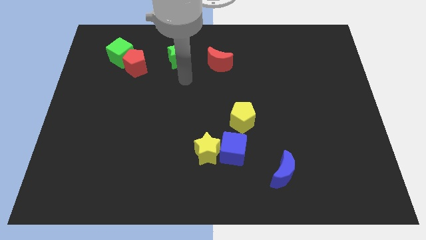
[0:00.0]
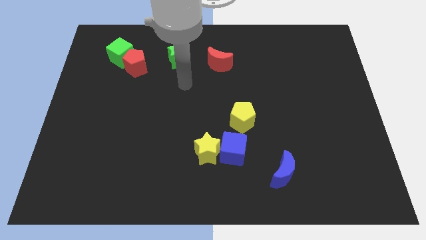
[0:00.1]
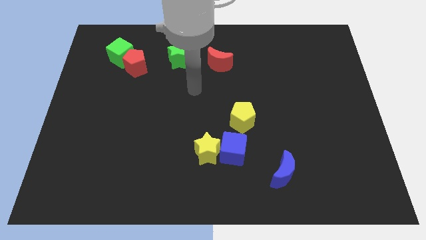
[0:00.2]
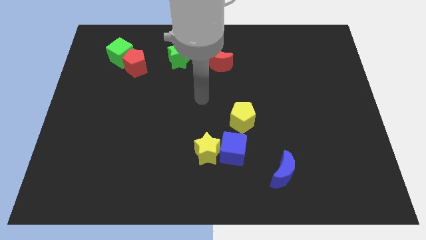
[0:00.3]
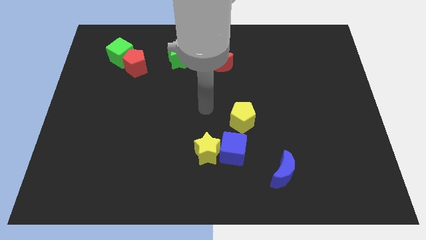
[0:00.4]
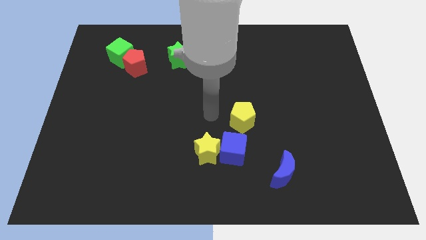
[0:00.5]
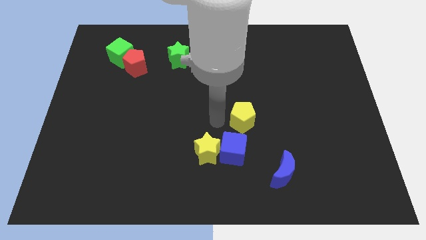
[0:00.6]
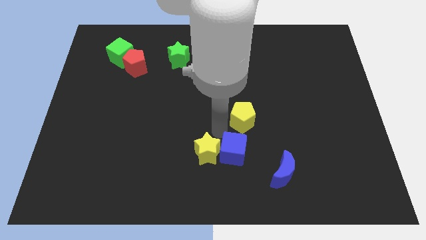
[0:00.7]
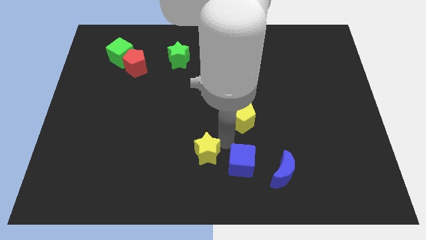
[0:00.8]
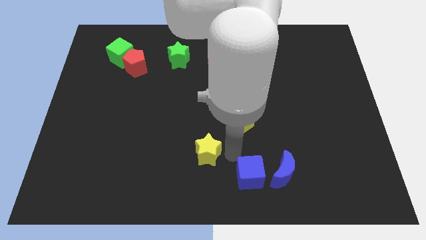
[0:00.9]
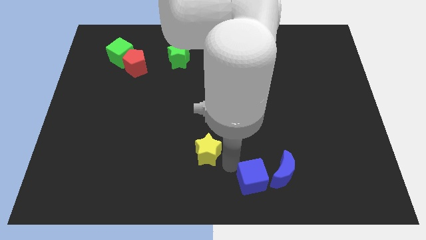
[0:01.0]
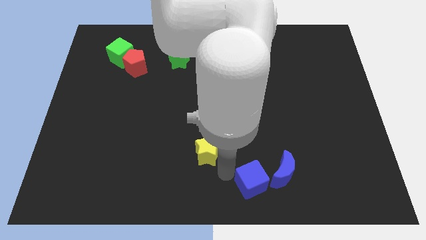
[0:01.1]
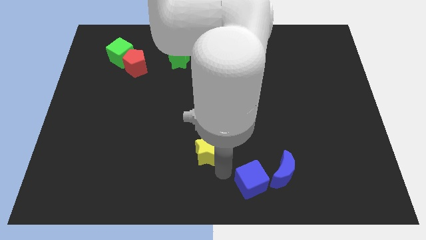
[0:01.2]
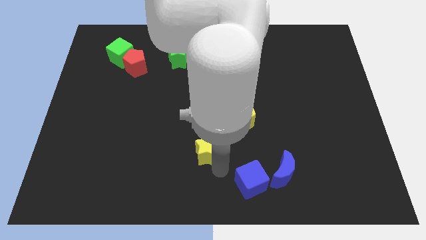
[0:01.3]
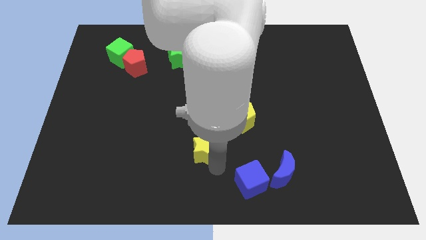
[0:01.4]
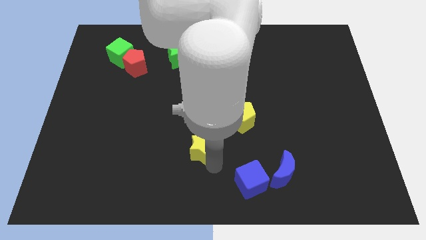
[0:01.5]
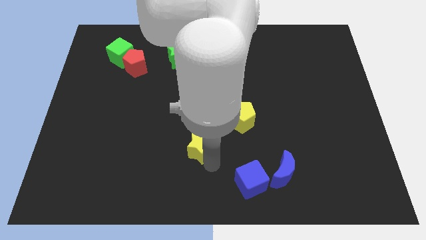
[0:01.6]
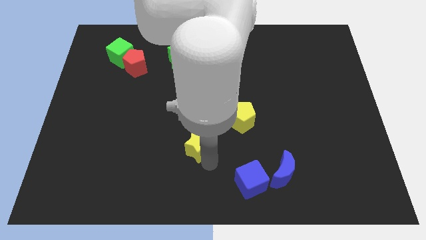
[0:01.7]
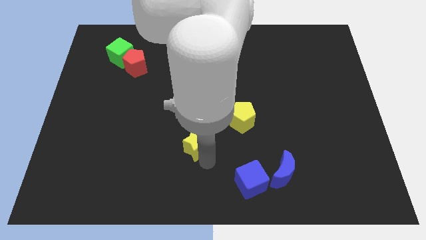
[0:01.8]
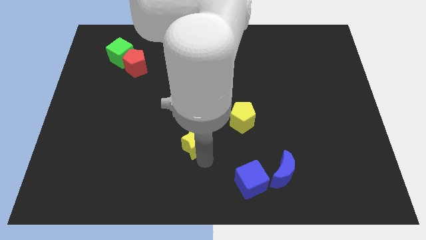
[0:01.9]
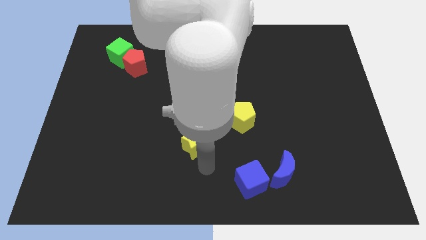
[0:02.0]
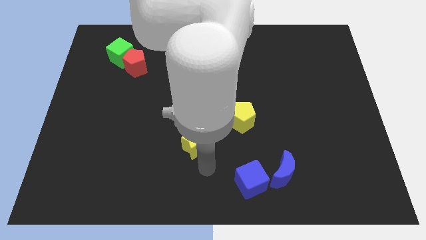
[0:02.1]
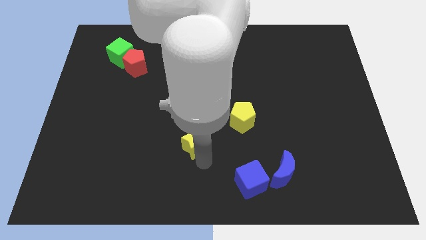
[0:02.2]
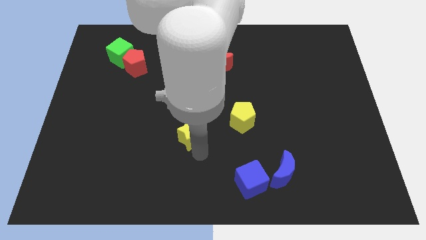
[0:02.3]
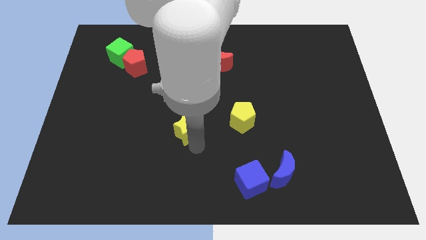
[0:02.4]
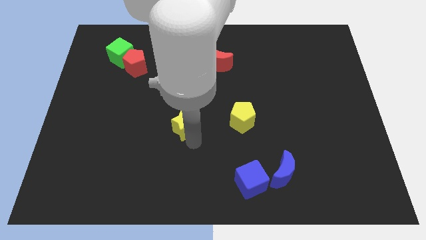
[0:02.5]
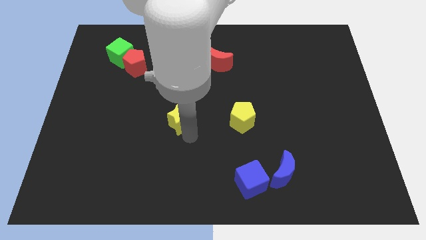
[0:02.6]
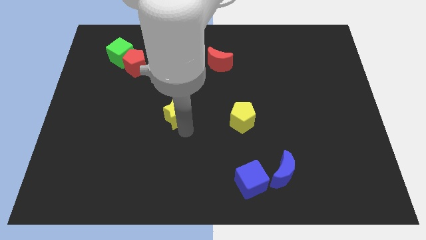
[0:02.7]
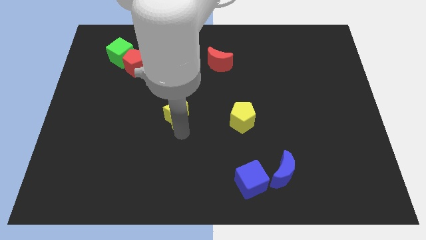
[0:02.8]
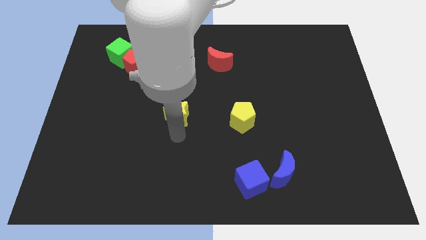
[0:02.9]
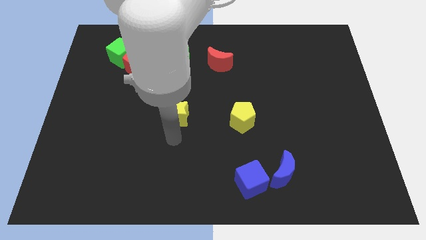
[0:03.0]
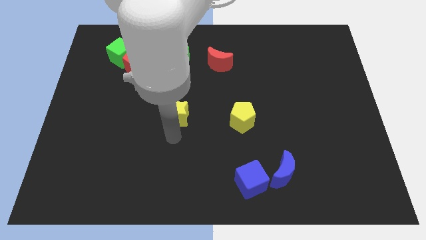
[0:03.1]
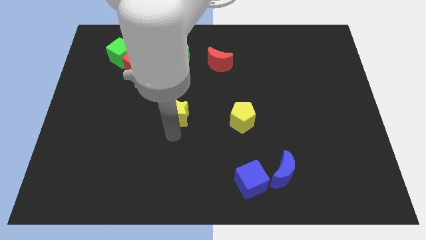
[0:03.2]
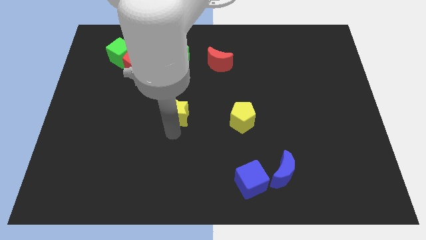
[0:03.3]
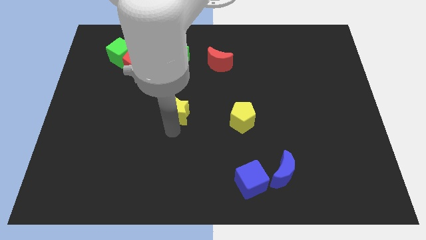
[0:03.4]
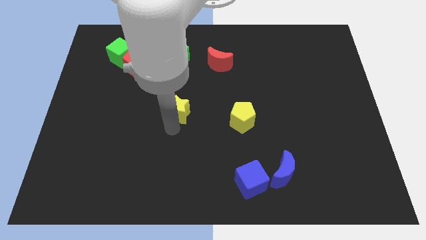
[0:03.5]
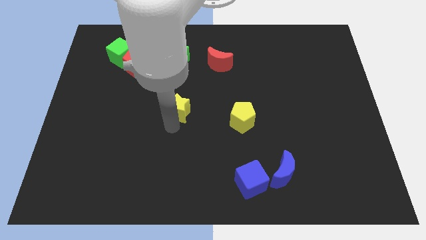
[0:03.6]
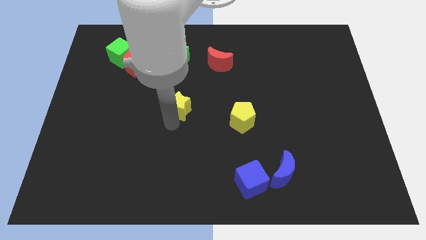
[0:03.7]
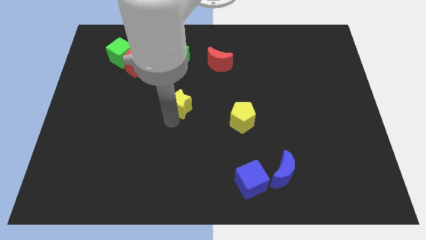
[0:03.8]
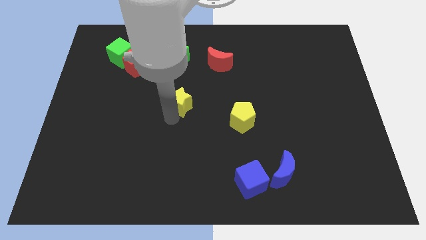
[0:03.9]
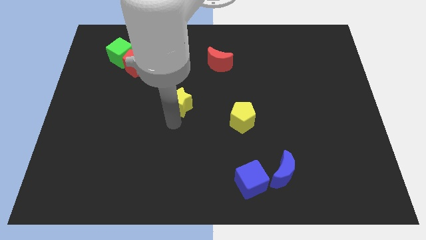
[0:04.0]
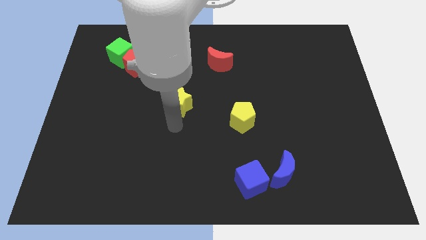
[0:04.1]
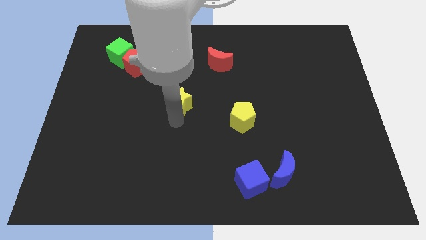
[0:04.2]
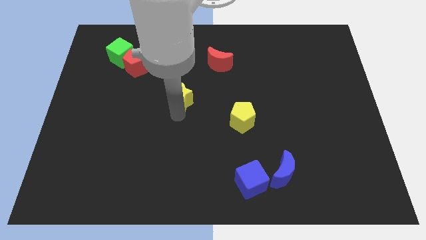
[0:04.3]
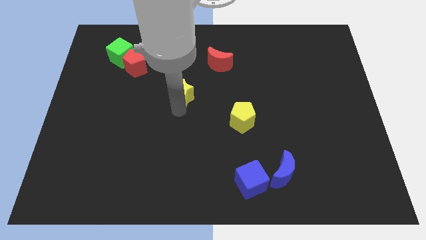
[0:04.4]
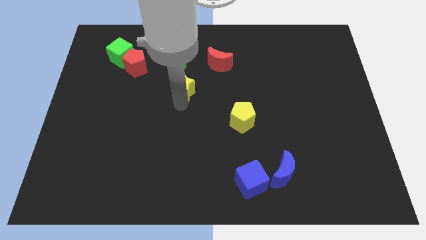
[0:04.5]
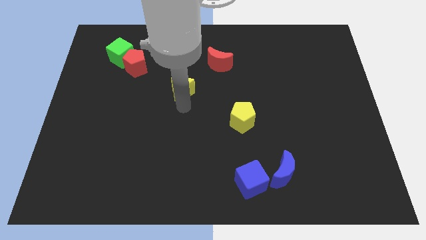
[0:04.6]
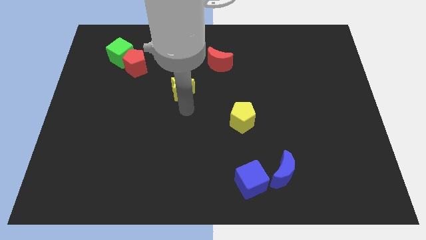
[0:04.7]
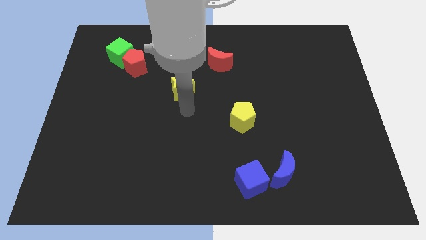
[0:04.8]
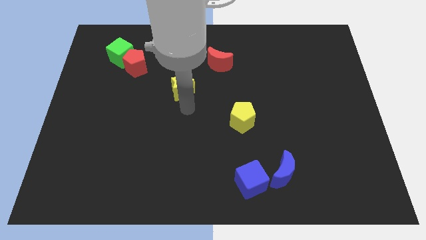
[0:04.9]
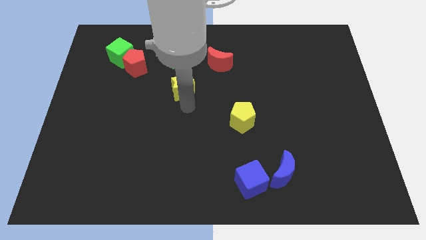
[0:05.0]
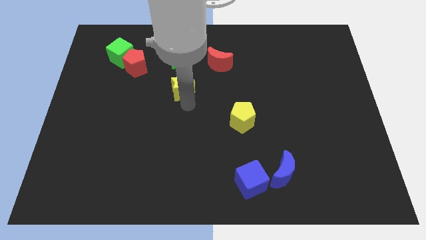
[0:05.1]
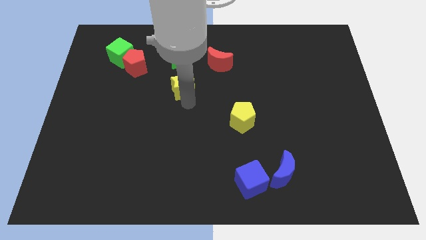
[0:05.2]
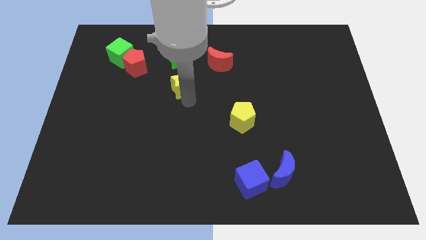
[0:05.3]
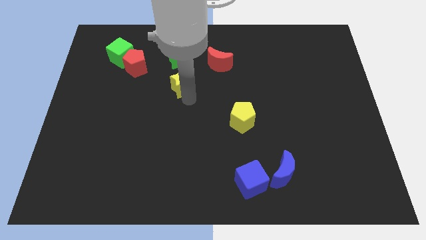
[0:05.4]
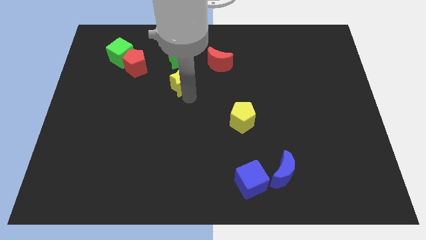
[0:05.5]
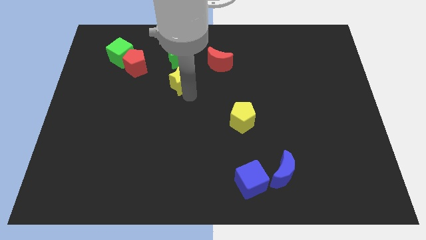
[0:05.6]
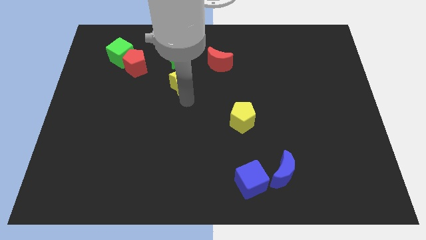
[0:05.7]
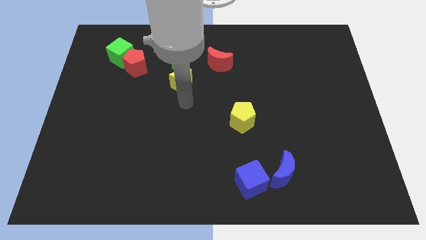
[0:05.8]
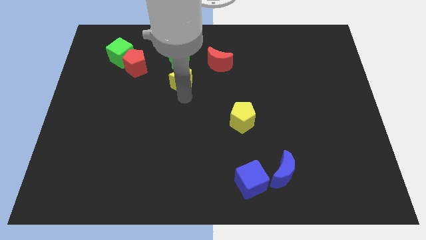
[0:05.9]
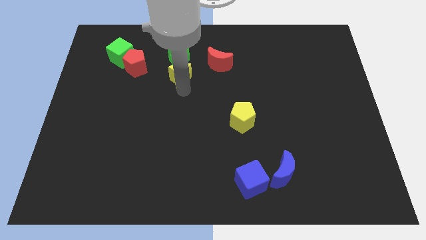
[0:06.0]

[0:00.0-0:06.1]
put the yellow star towards the green star

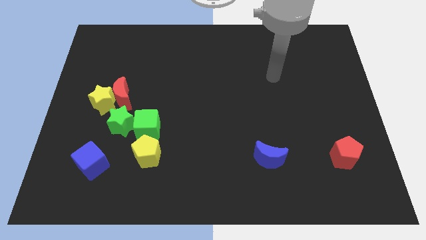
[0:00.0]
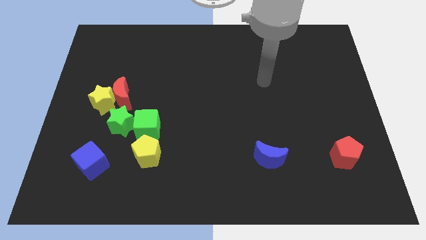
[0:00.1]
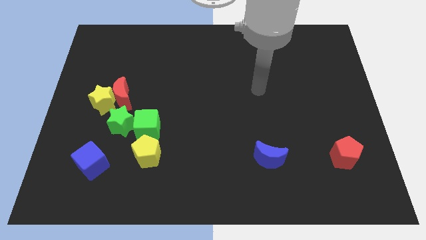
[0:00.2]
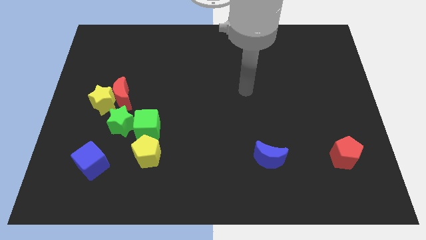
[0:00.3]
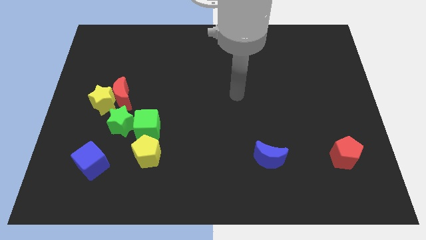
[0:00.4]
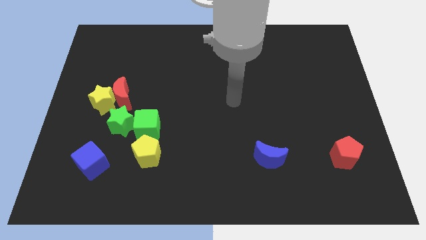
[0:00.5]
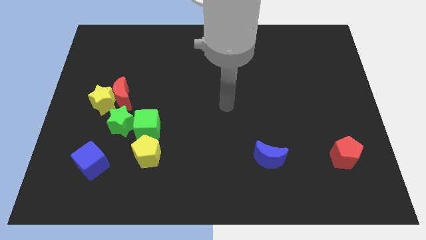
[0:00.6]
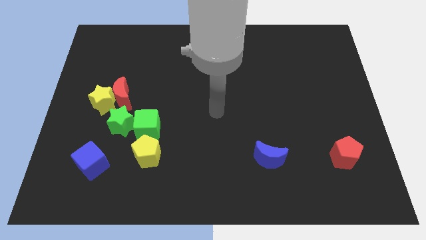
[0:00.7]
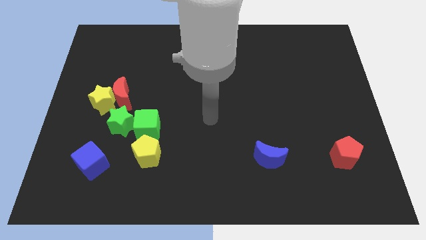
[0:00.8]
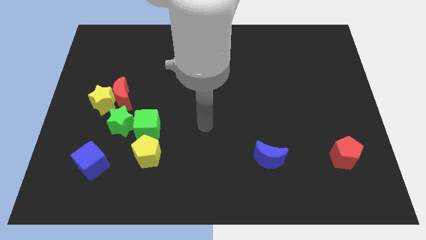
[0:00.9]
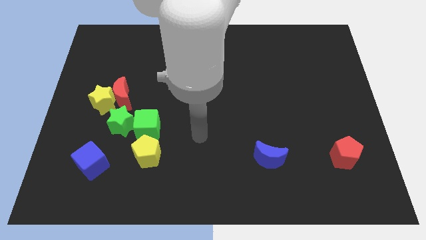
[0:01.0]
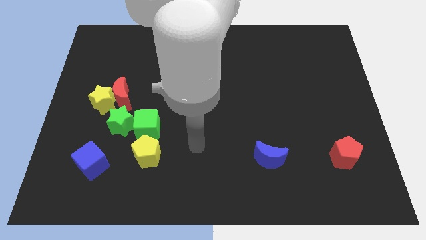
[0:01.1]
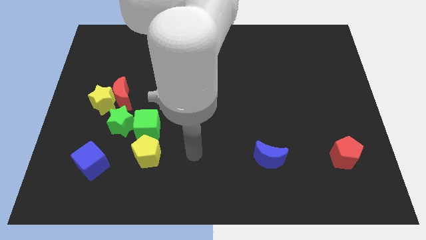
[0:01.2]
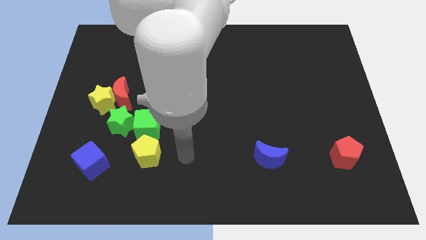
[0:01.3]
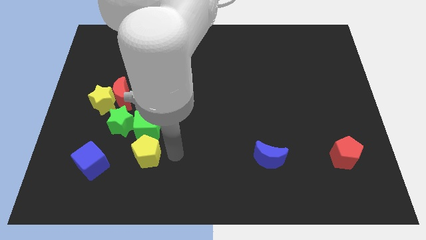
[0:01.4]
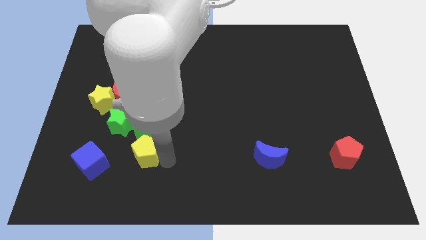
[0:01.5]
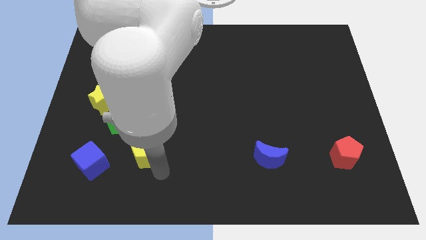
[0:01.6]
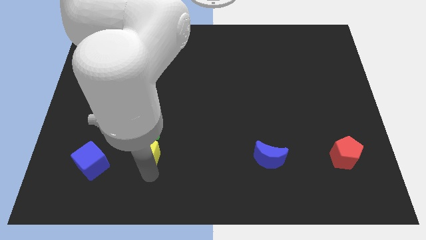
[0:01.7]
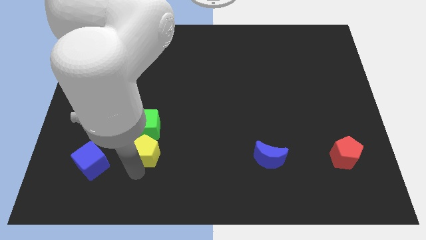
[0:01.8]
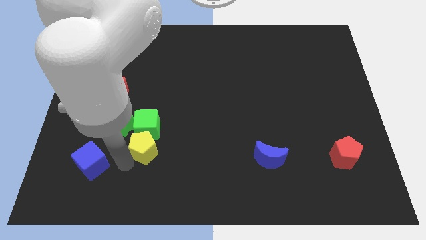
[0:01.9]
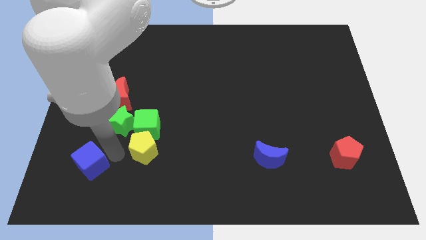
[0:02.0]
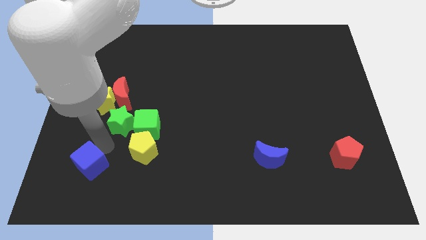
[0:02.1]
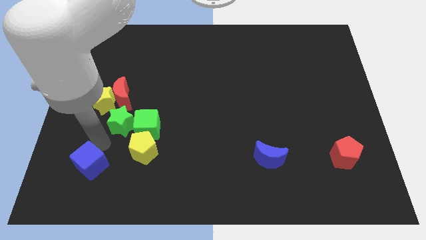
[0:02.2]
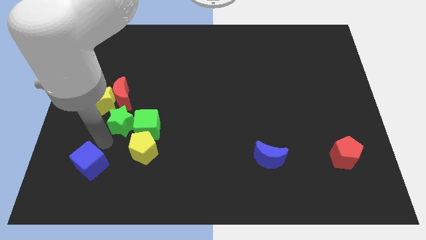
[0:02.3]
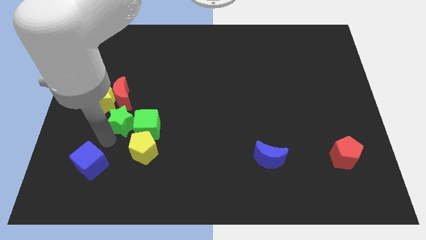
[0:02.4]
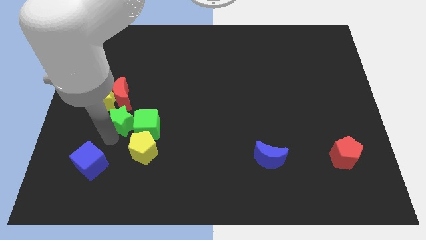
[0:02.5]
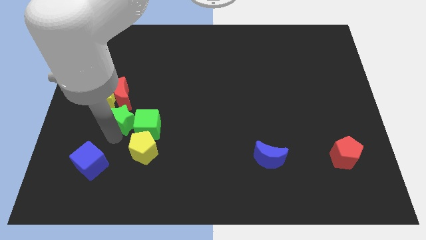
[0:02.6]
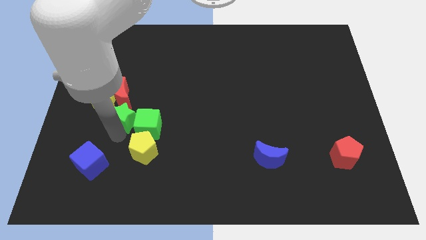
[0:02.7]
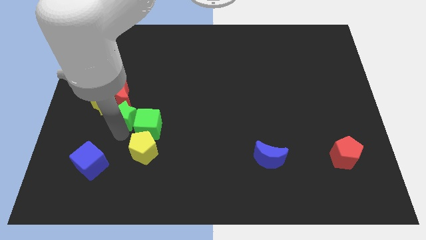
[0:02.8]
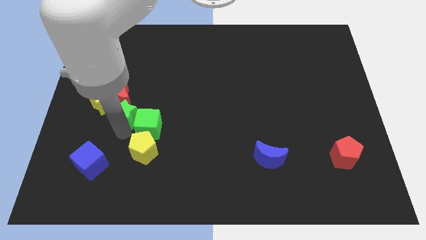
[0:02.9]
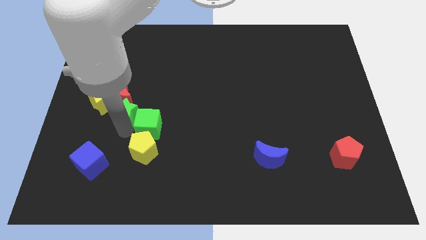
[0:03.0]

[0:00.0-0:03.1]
push the green star next to the red moon
